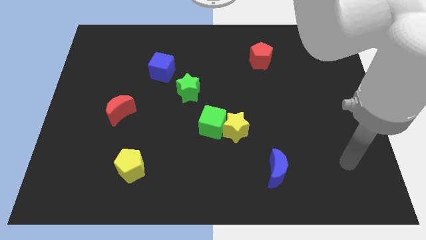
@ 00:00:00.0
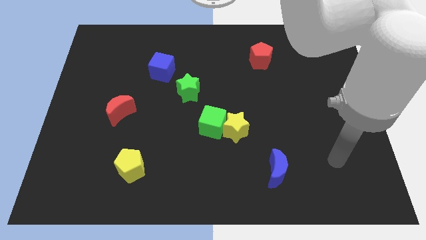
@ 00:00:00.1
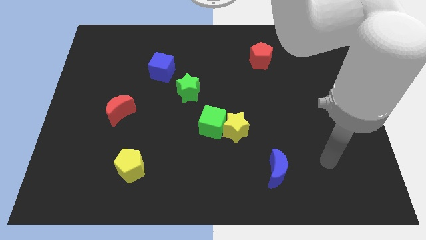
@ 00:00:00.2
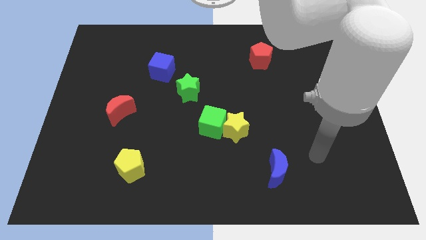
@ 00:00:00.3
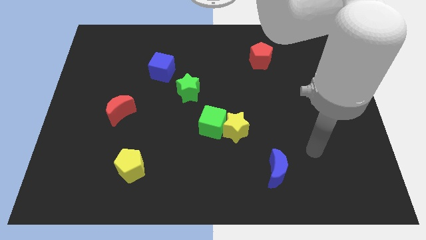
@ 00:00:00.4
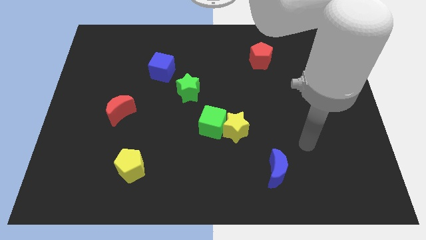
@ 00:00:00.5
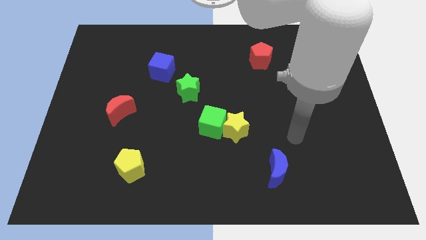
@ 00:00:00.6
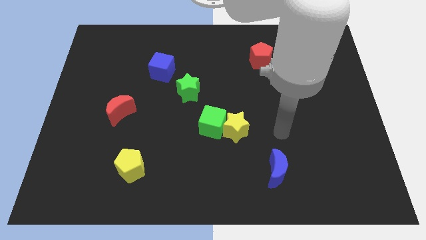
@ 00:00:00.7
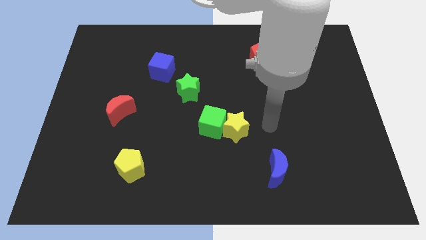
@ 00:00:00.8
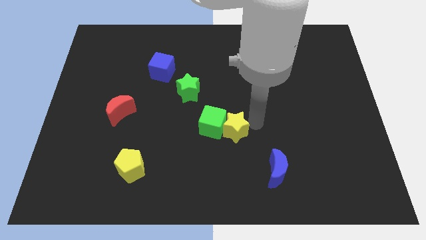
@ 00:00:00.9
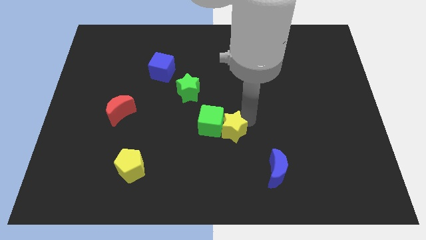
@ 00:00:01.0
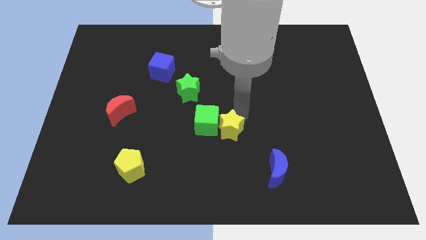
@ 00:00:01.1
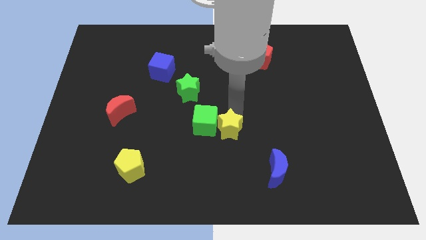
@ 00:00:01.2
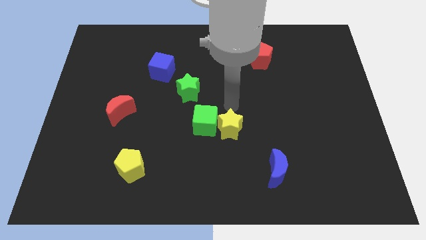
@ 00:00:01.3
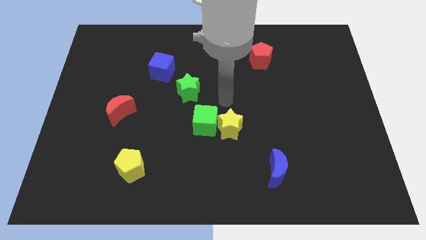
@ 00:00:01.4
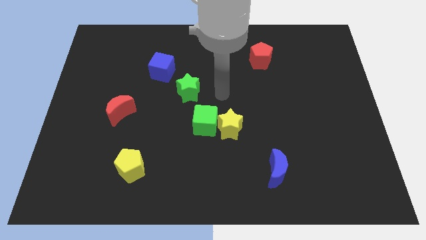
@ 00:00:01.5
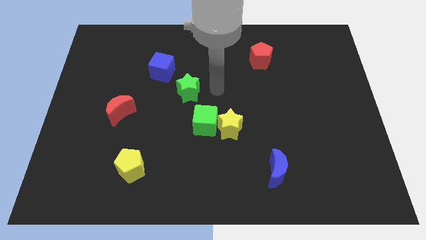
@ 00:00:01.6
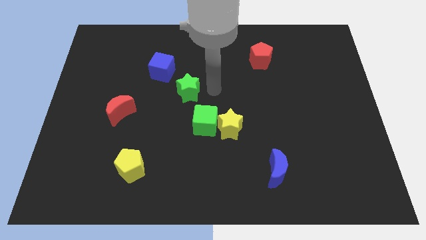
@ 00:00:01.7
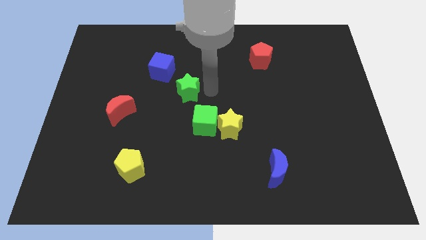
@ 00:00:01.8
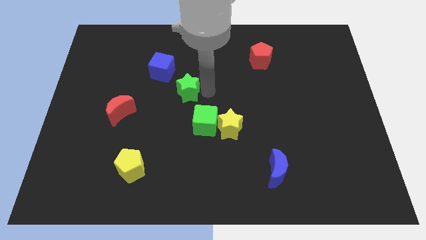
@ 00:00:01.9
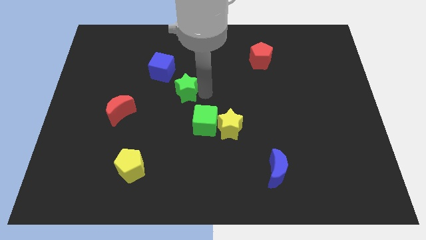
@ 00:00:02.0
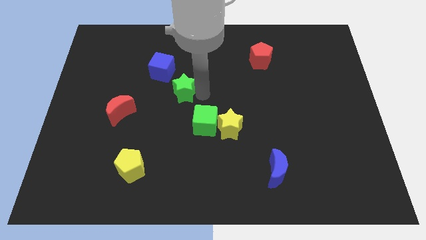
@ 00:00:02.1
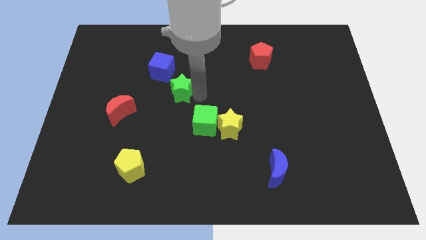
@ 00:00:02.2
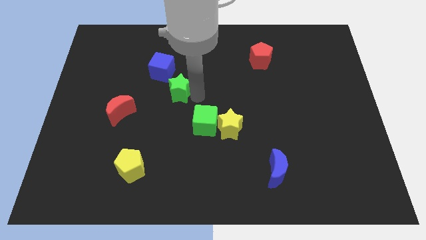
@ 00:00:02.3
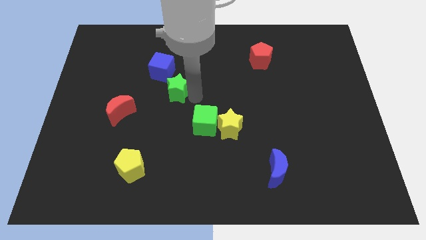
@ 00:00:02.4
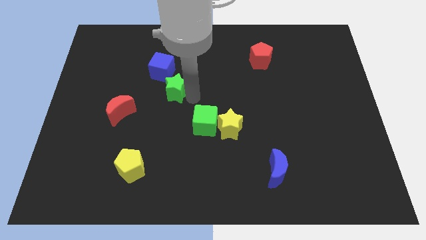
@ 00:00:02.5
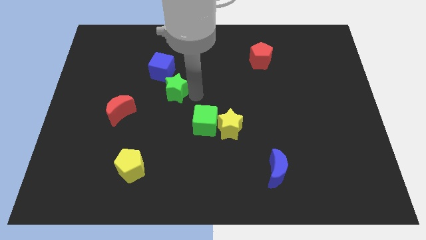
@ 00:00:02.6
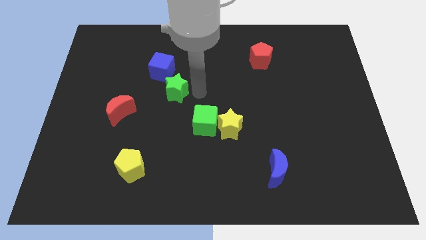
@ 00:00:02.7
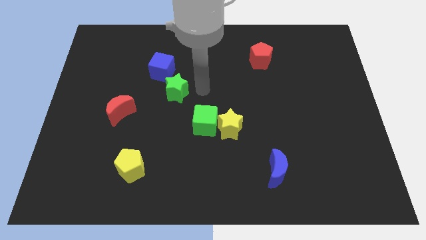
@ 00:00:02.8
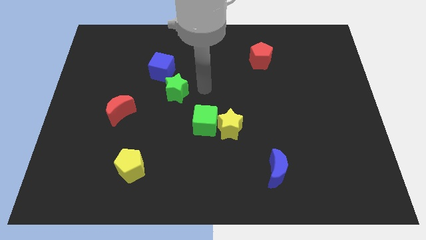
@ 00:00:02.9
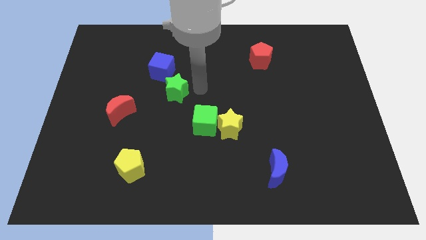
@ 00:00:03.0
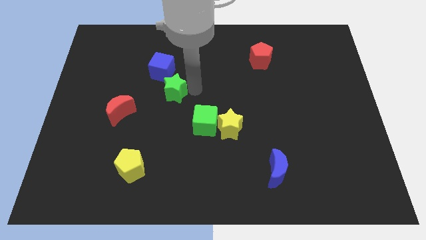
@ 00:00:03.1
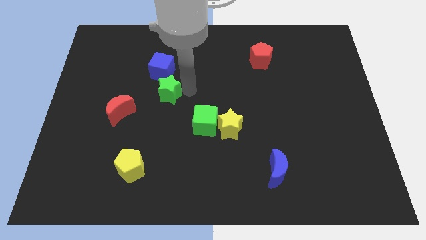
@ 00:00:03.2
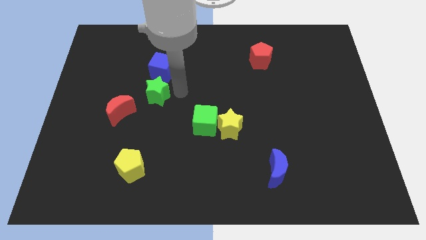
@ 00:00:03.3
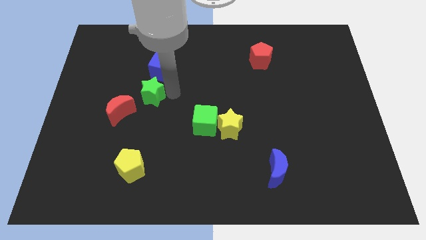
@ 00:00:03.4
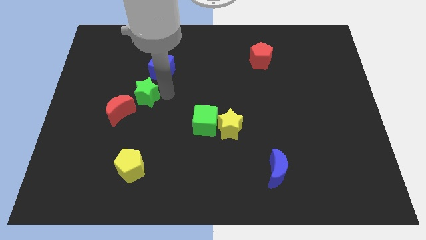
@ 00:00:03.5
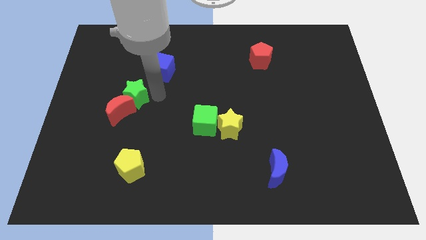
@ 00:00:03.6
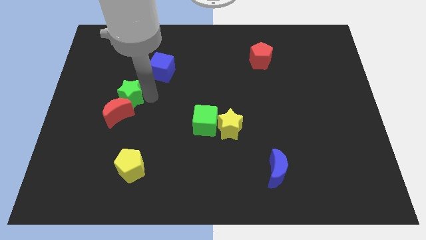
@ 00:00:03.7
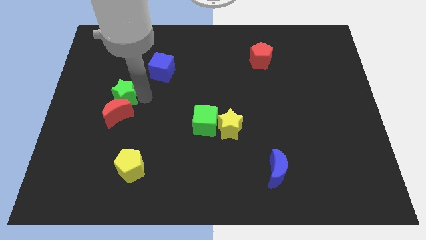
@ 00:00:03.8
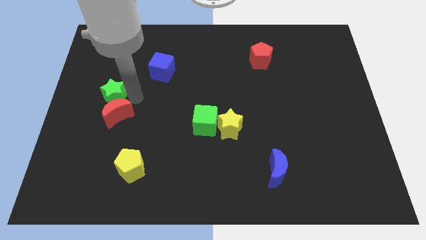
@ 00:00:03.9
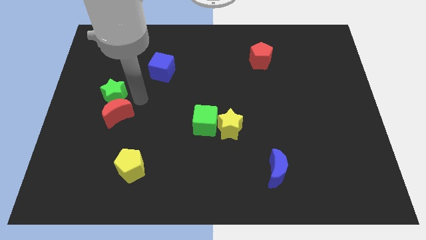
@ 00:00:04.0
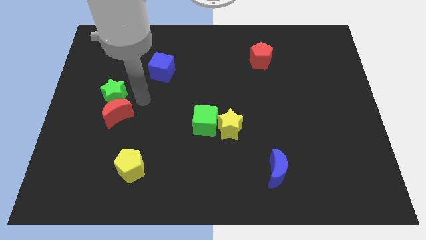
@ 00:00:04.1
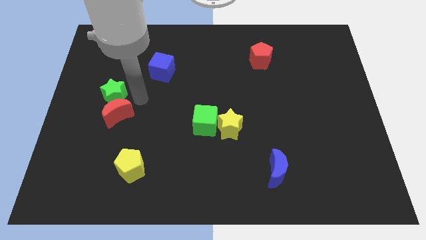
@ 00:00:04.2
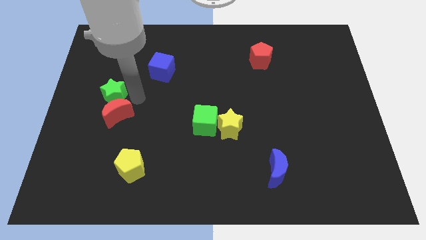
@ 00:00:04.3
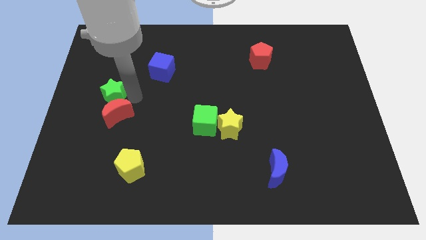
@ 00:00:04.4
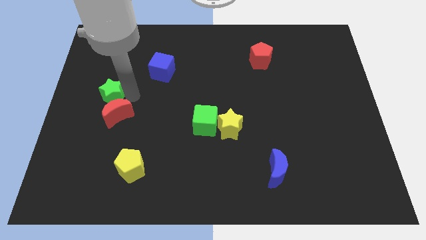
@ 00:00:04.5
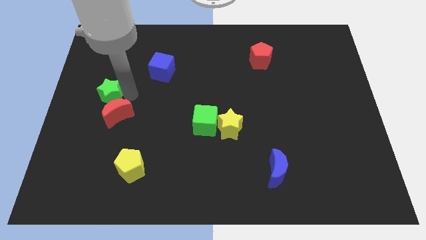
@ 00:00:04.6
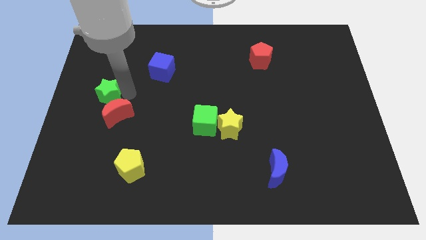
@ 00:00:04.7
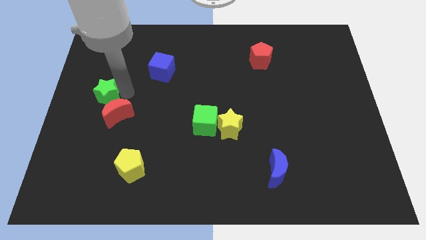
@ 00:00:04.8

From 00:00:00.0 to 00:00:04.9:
slide the green star to the left side of the board

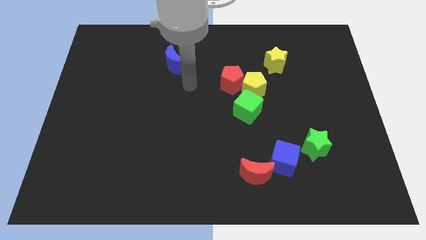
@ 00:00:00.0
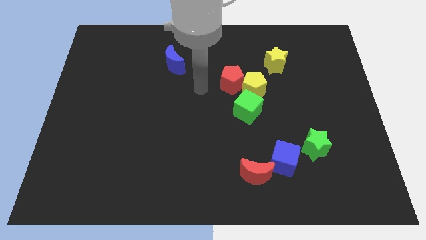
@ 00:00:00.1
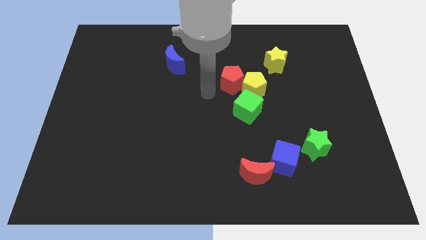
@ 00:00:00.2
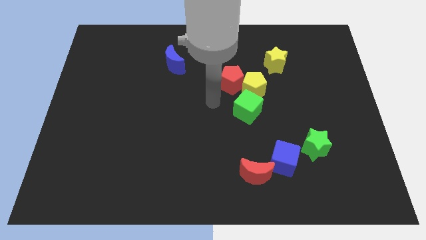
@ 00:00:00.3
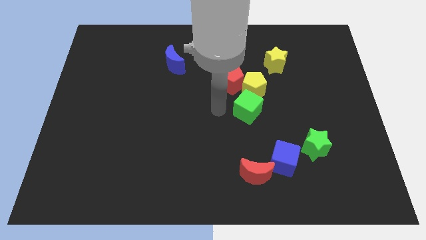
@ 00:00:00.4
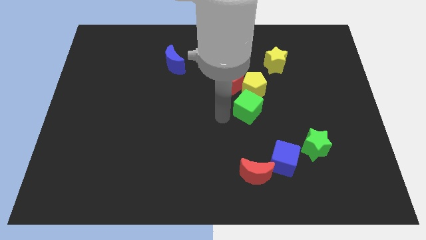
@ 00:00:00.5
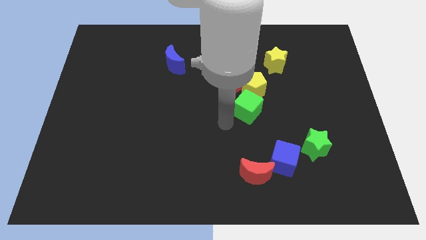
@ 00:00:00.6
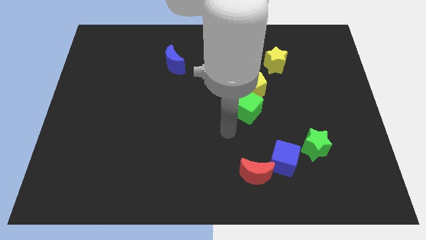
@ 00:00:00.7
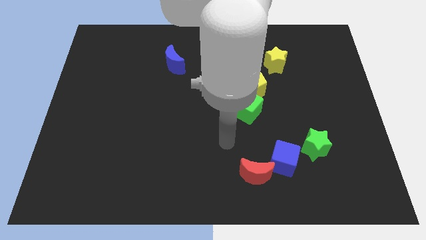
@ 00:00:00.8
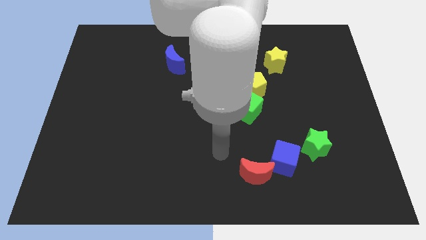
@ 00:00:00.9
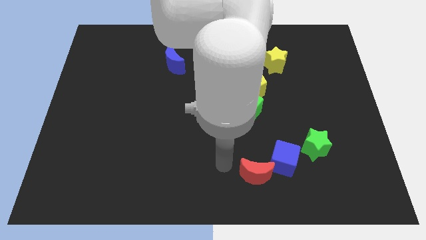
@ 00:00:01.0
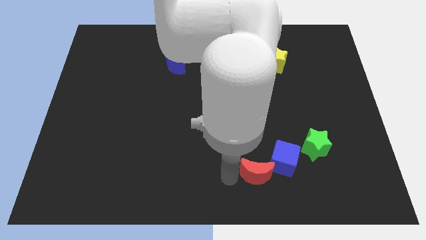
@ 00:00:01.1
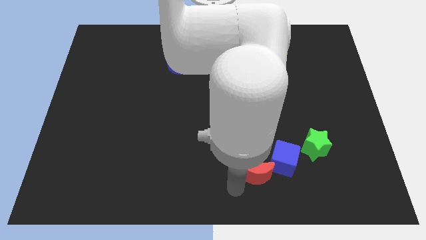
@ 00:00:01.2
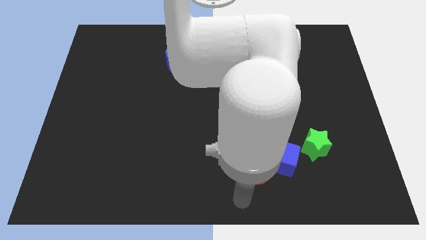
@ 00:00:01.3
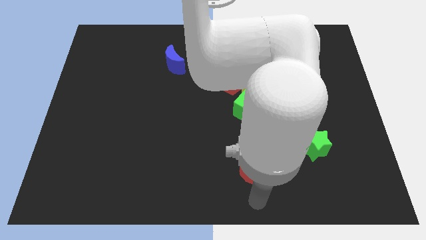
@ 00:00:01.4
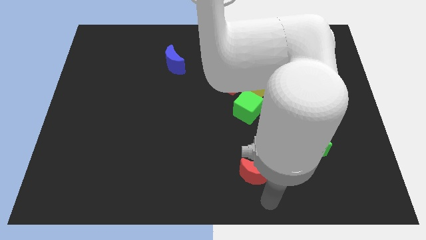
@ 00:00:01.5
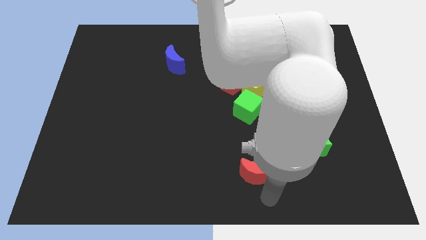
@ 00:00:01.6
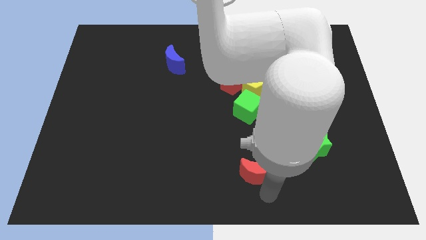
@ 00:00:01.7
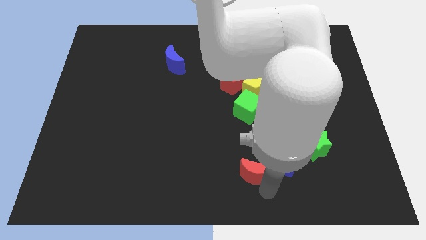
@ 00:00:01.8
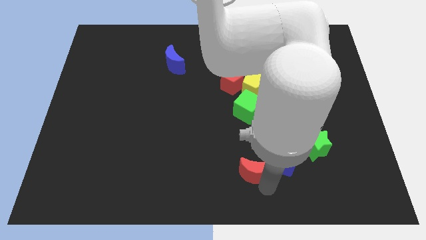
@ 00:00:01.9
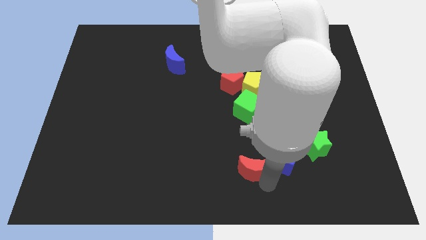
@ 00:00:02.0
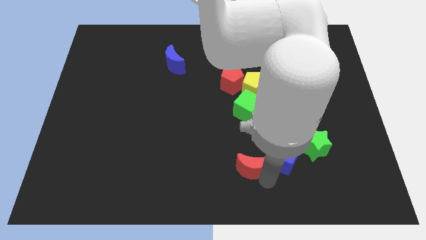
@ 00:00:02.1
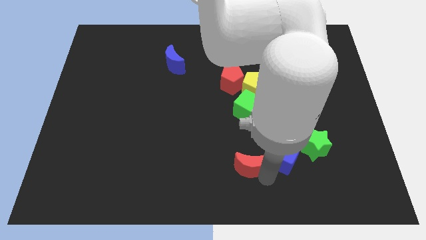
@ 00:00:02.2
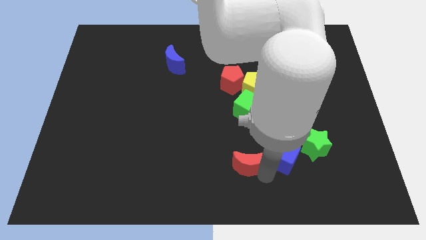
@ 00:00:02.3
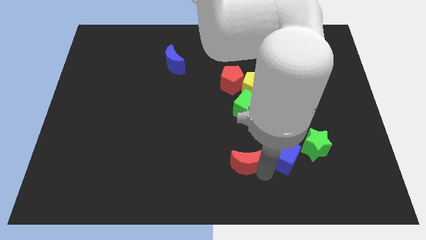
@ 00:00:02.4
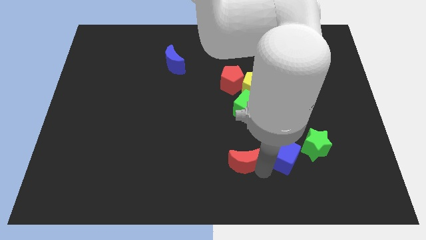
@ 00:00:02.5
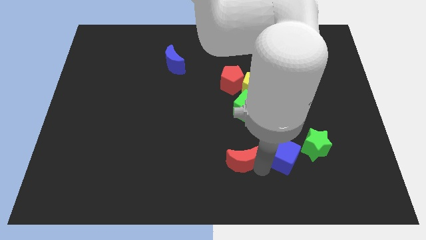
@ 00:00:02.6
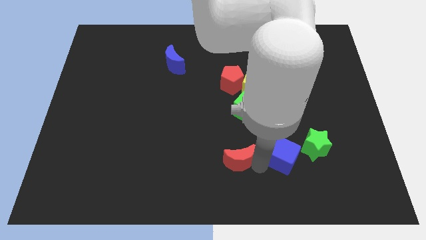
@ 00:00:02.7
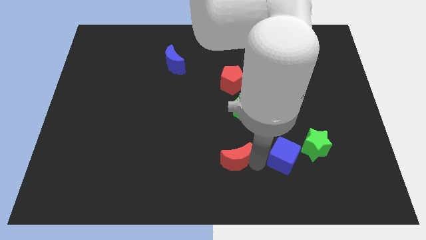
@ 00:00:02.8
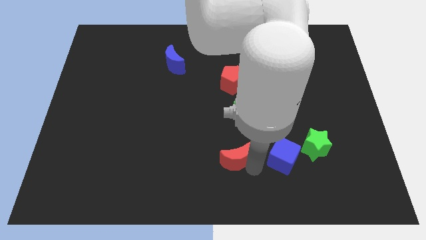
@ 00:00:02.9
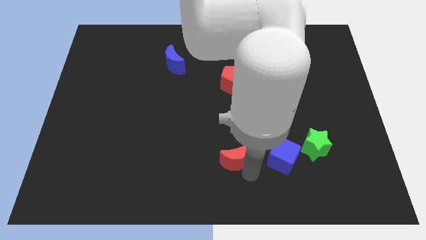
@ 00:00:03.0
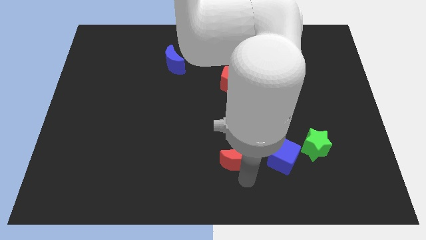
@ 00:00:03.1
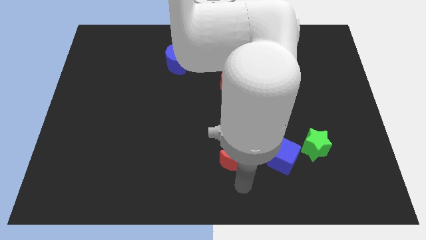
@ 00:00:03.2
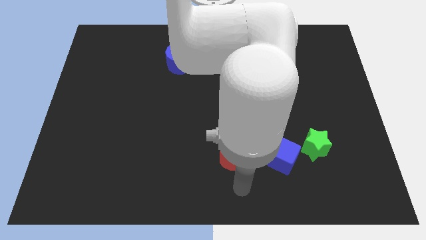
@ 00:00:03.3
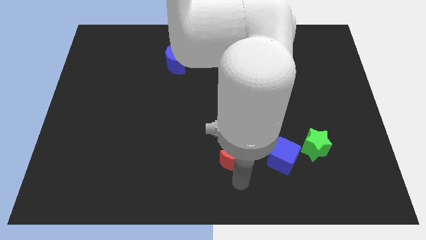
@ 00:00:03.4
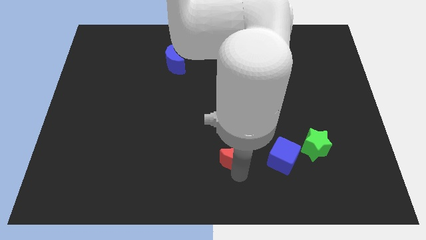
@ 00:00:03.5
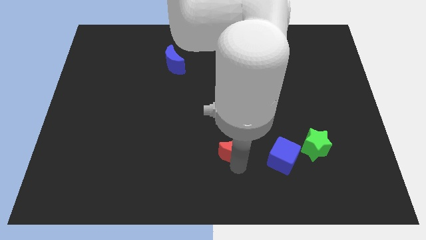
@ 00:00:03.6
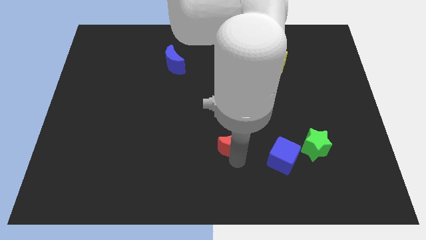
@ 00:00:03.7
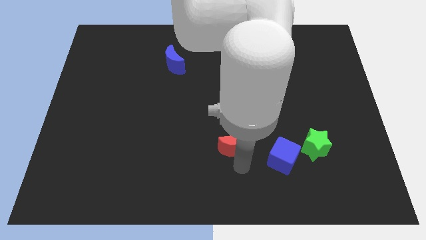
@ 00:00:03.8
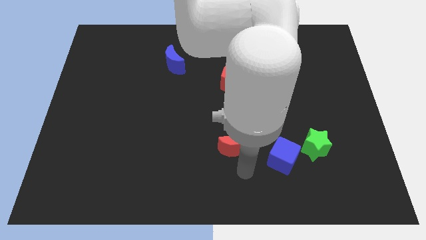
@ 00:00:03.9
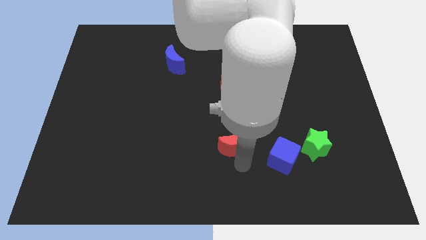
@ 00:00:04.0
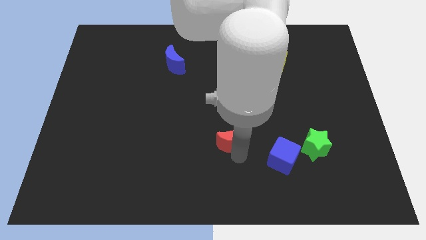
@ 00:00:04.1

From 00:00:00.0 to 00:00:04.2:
push the red moon to the center
